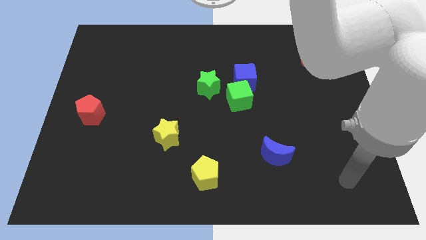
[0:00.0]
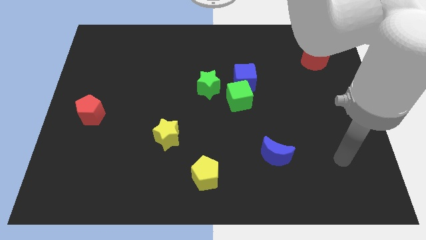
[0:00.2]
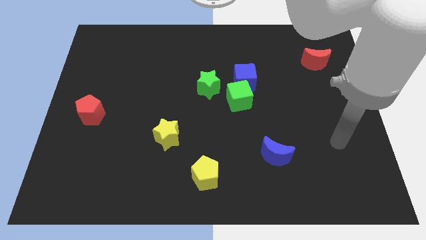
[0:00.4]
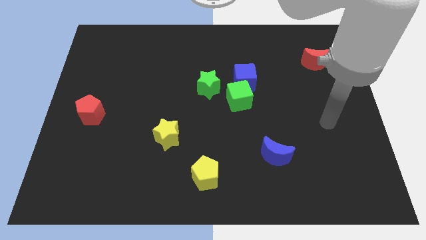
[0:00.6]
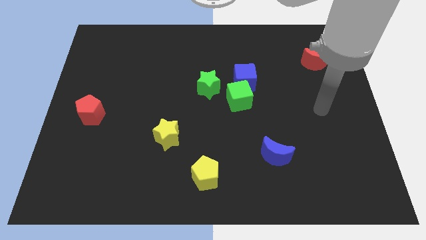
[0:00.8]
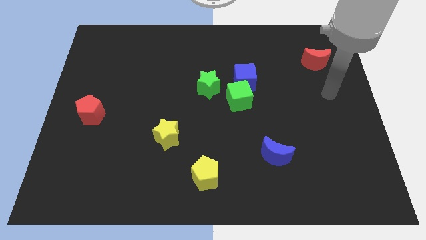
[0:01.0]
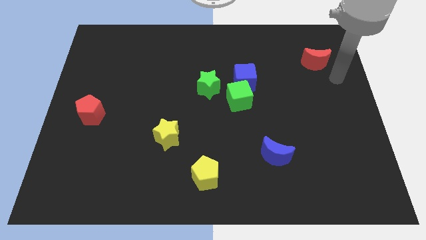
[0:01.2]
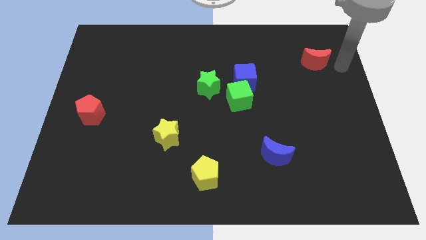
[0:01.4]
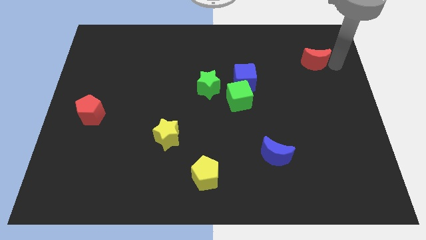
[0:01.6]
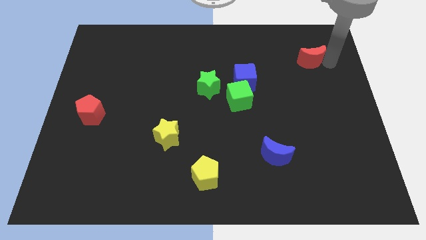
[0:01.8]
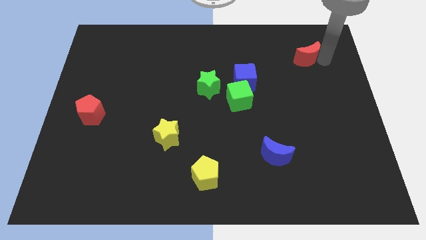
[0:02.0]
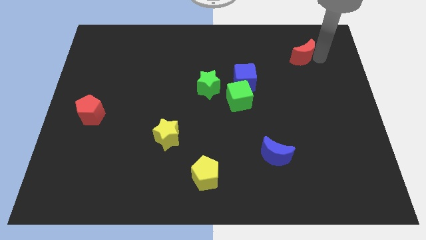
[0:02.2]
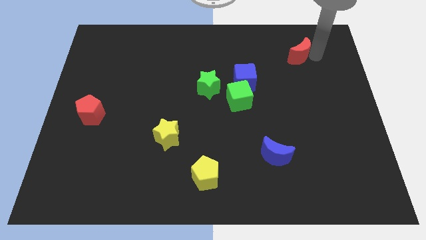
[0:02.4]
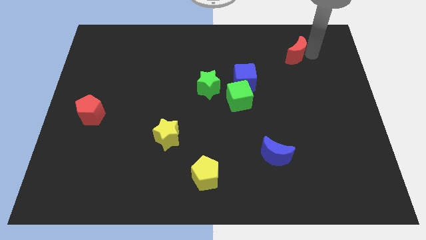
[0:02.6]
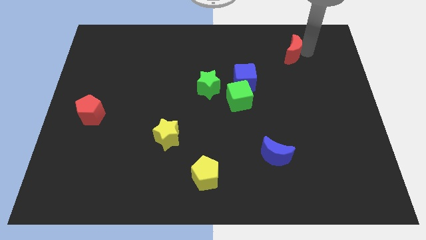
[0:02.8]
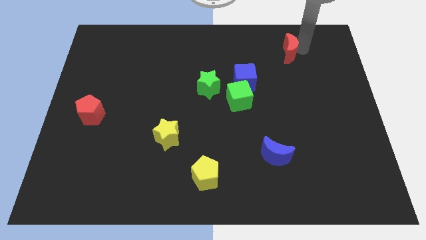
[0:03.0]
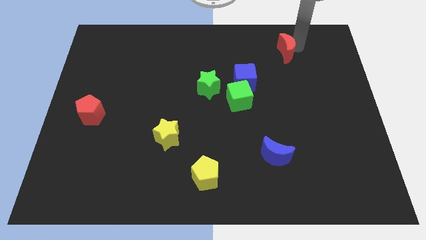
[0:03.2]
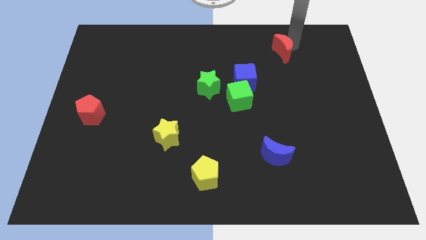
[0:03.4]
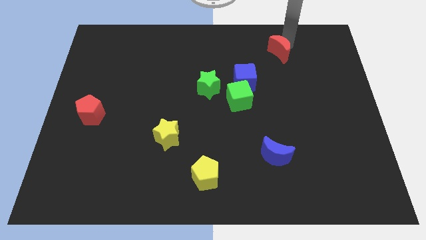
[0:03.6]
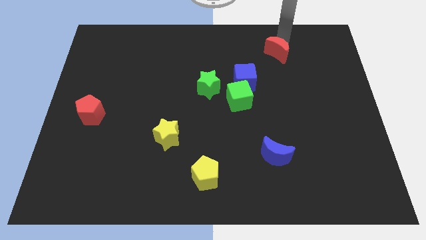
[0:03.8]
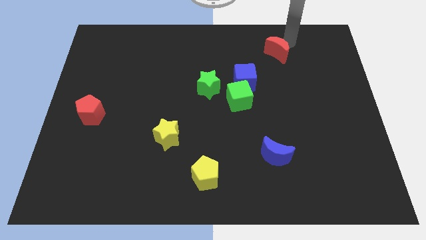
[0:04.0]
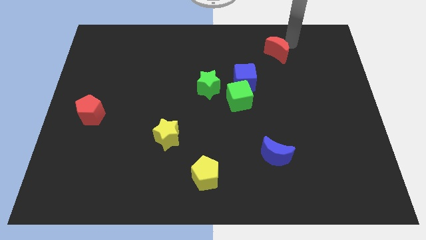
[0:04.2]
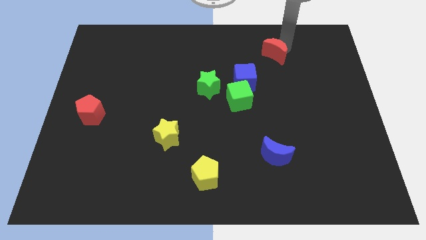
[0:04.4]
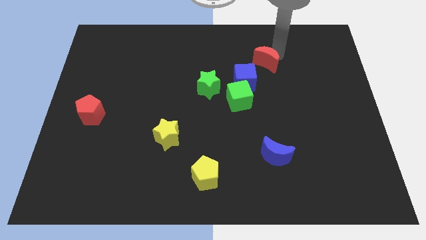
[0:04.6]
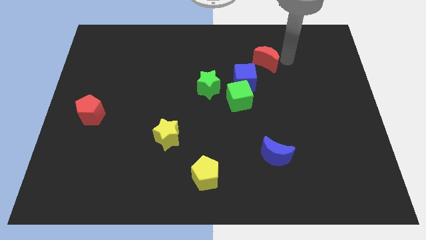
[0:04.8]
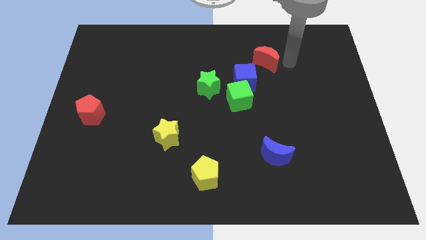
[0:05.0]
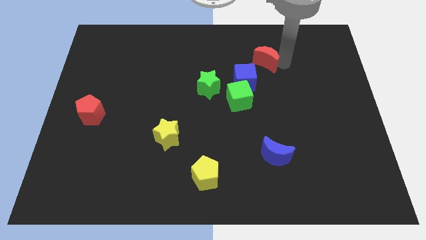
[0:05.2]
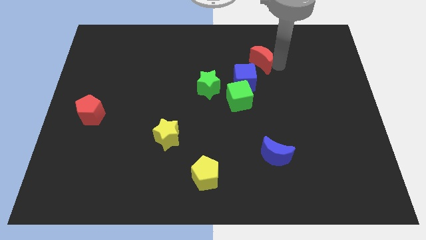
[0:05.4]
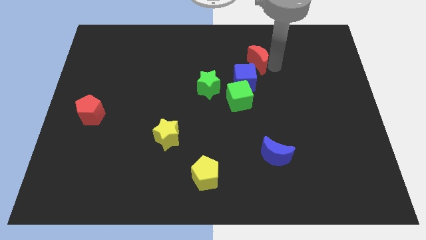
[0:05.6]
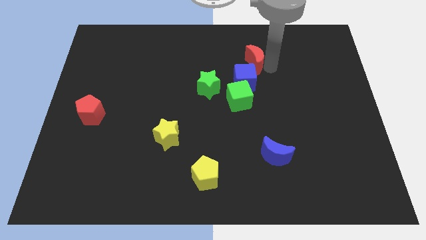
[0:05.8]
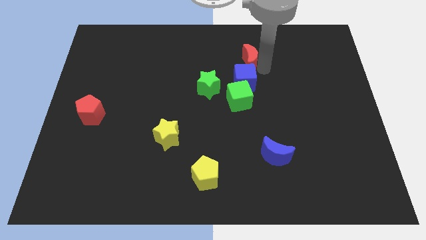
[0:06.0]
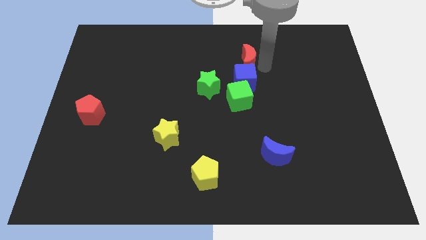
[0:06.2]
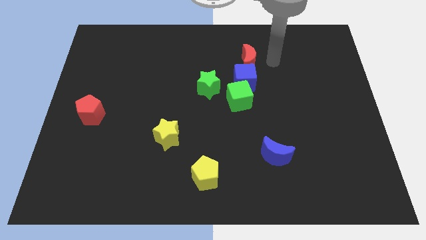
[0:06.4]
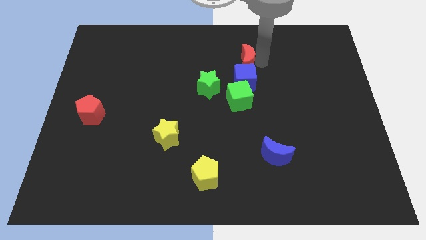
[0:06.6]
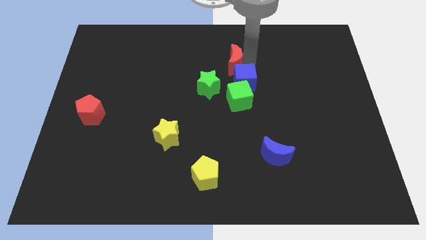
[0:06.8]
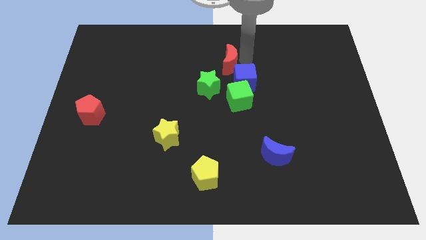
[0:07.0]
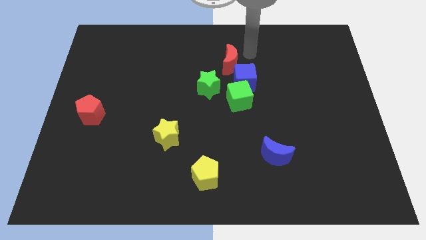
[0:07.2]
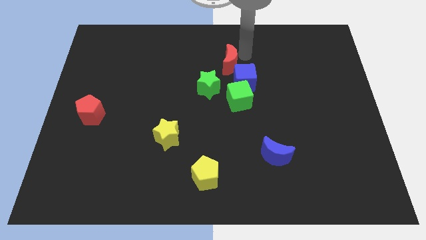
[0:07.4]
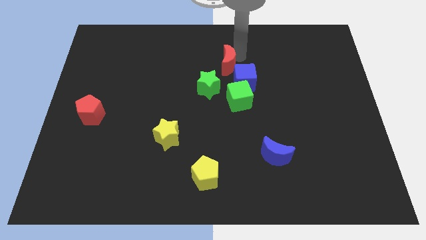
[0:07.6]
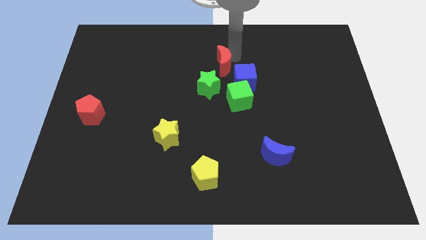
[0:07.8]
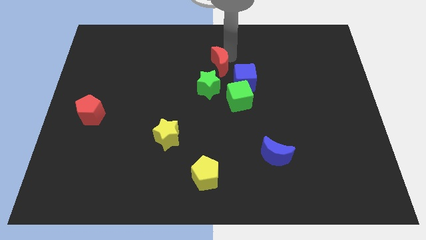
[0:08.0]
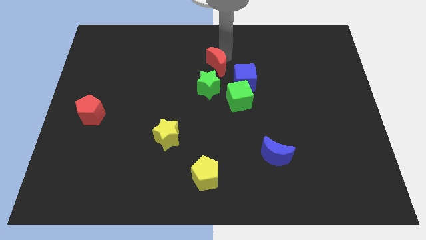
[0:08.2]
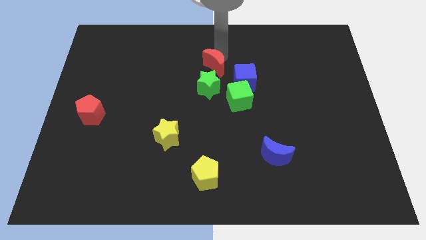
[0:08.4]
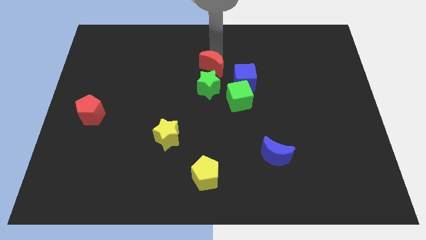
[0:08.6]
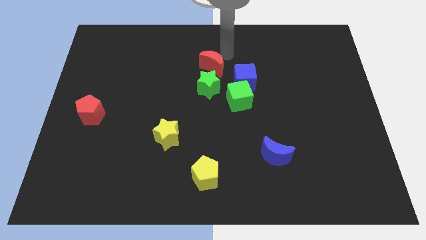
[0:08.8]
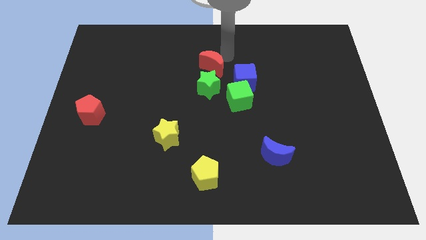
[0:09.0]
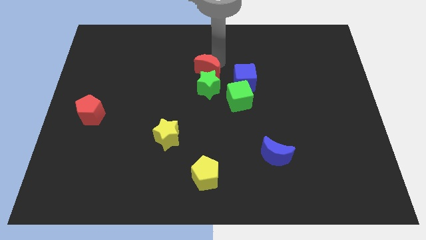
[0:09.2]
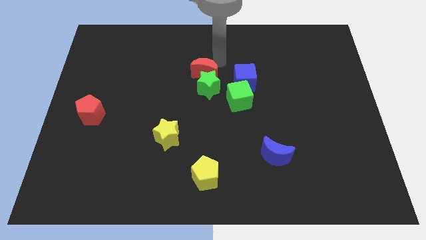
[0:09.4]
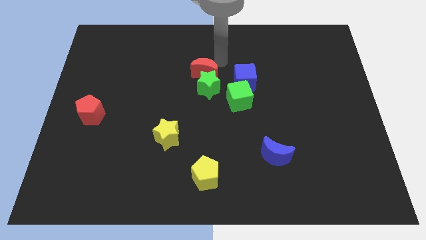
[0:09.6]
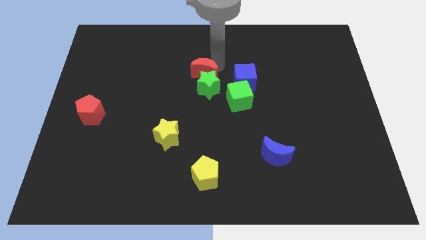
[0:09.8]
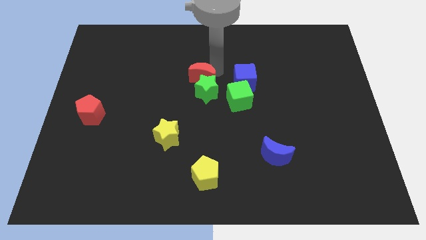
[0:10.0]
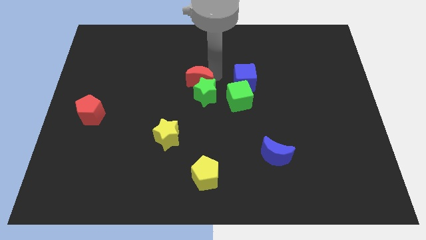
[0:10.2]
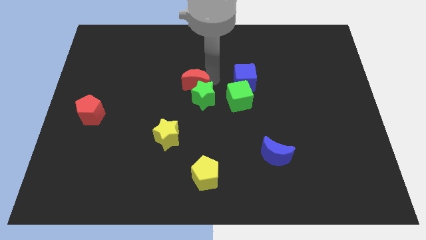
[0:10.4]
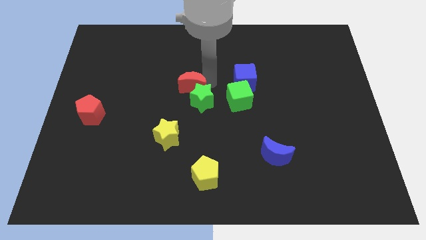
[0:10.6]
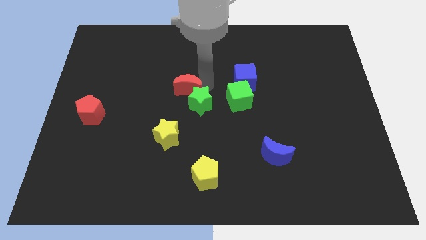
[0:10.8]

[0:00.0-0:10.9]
slide the red moon to the top of the yellow star

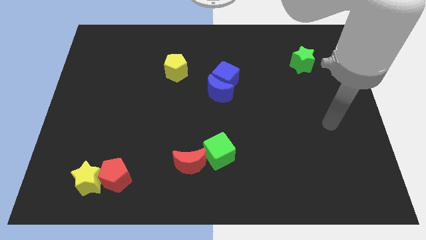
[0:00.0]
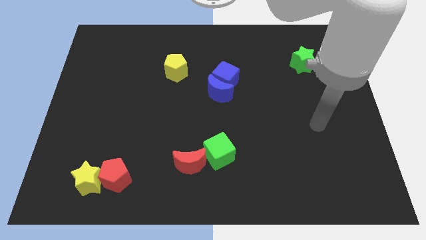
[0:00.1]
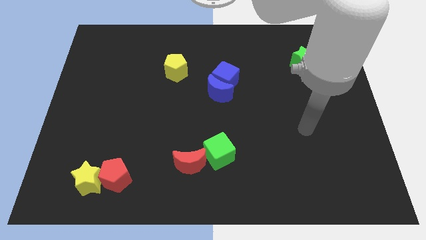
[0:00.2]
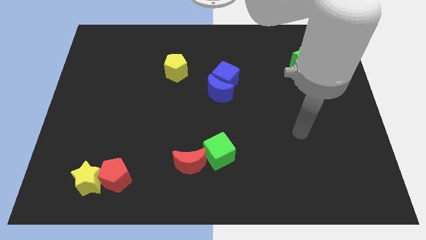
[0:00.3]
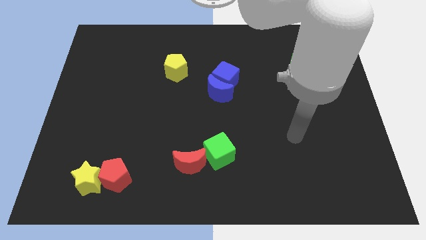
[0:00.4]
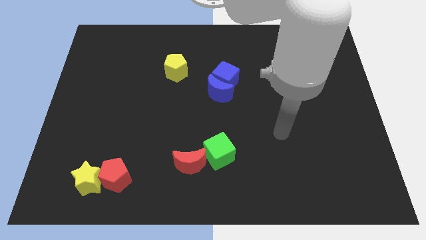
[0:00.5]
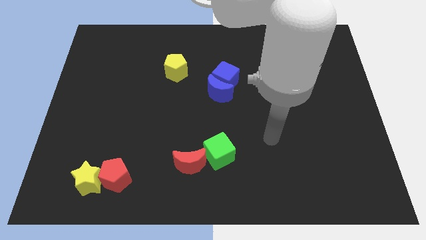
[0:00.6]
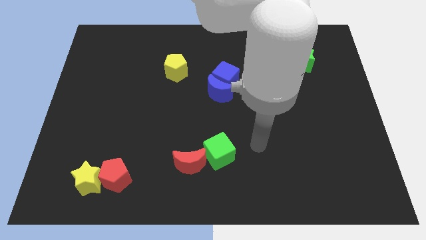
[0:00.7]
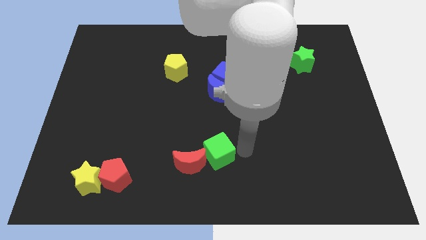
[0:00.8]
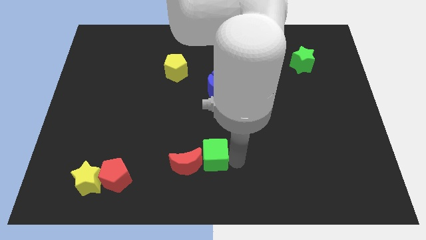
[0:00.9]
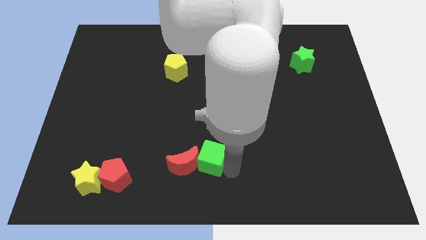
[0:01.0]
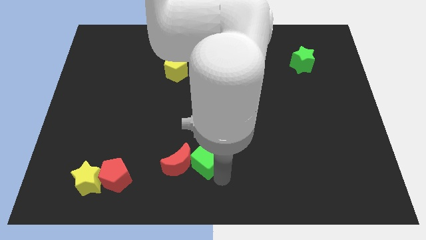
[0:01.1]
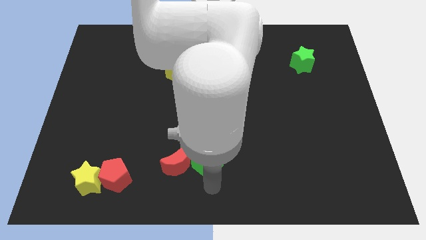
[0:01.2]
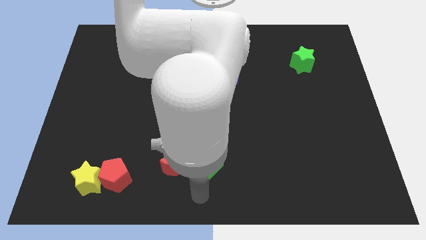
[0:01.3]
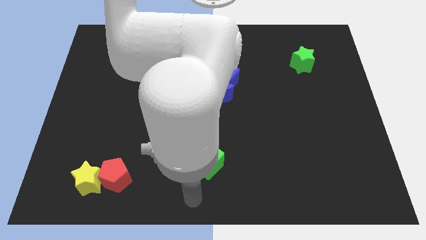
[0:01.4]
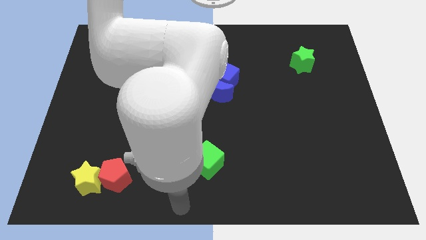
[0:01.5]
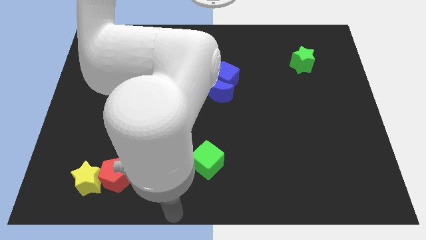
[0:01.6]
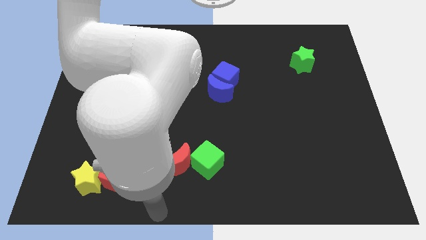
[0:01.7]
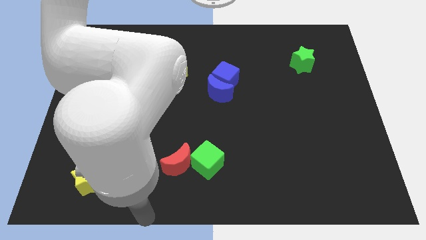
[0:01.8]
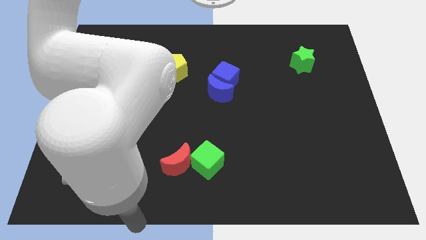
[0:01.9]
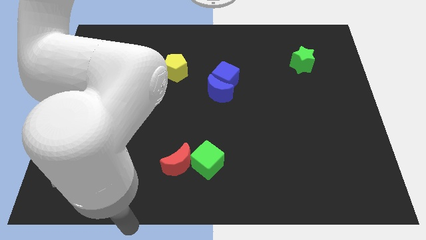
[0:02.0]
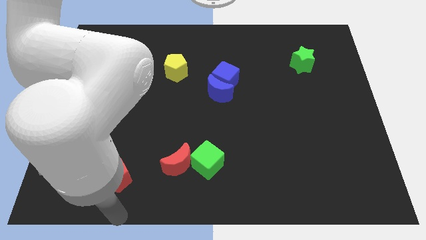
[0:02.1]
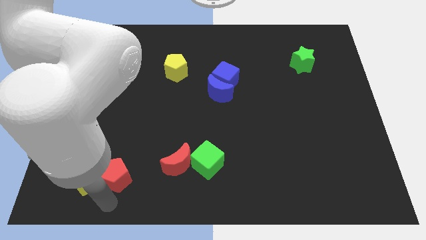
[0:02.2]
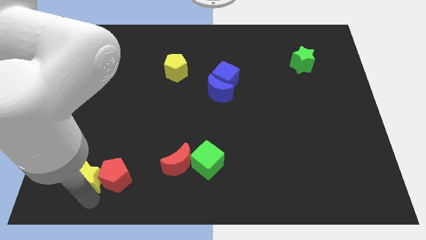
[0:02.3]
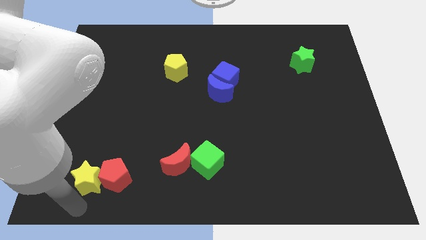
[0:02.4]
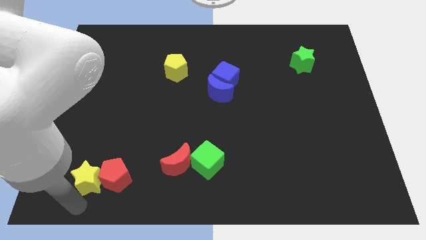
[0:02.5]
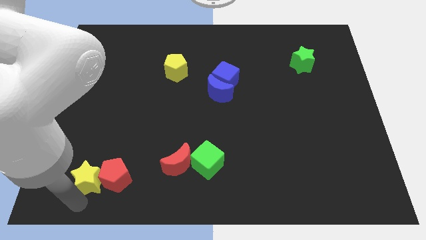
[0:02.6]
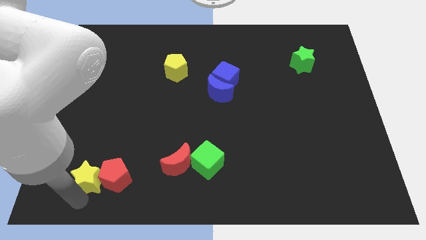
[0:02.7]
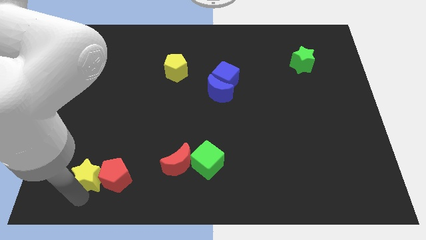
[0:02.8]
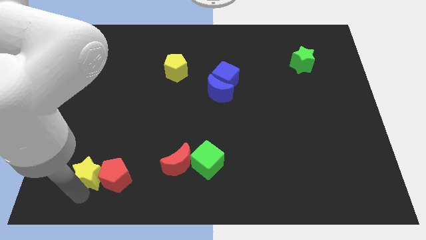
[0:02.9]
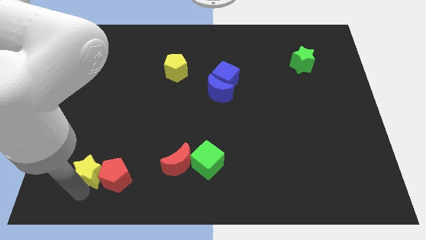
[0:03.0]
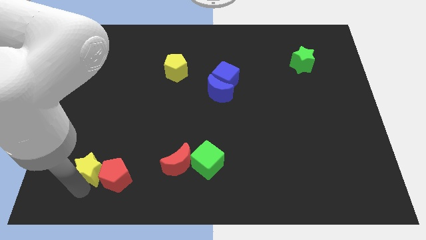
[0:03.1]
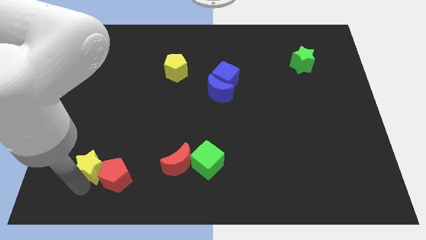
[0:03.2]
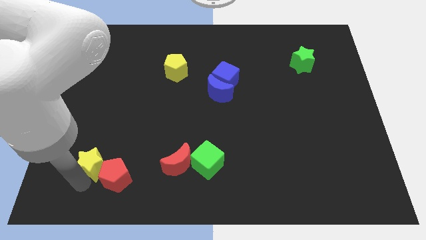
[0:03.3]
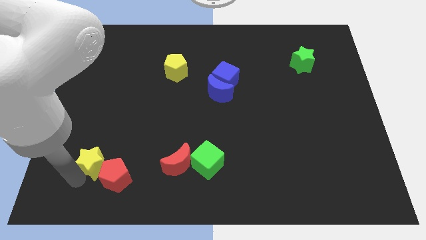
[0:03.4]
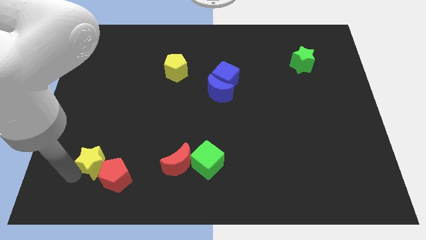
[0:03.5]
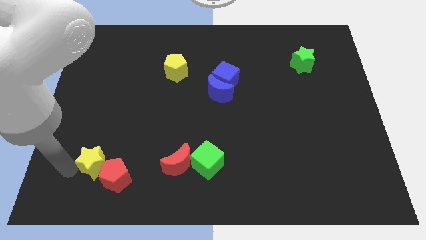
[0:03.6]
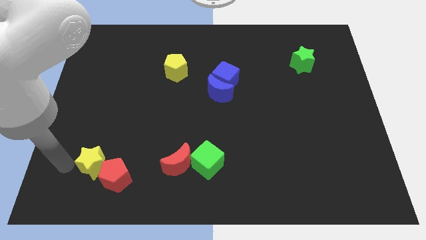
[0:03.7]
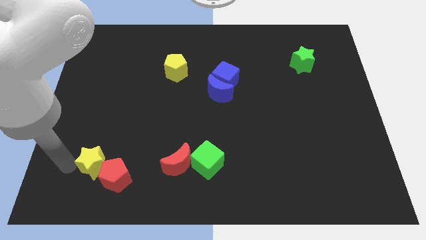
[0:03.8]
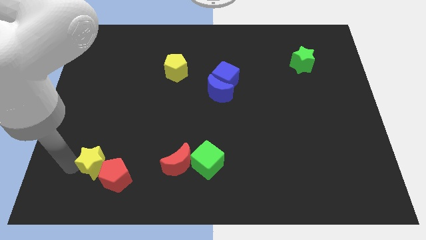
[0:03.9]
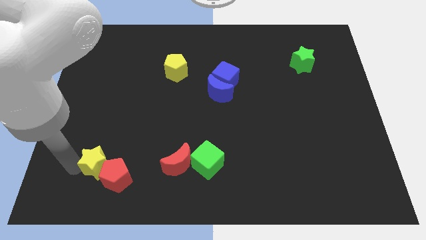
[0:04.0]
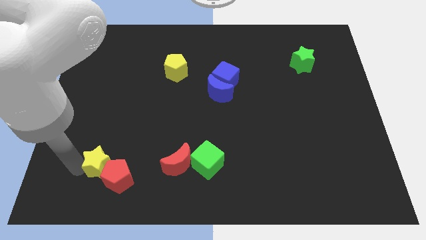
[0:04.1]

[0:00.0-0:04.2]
put the yellow star to the left side of the red moon
